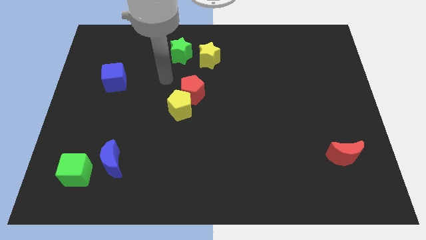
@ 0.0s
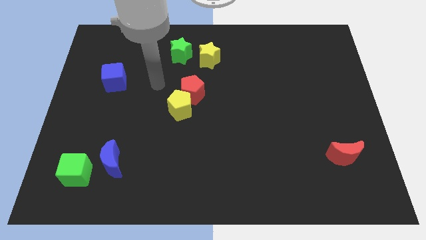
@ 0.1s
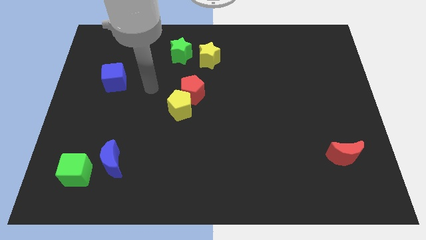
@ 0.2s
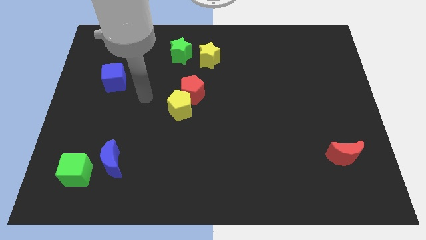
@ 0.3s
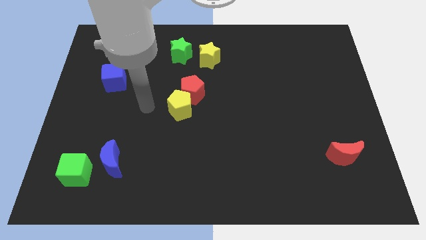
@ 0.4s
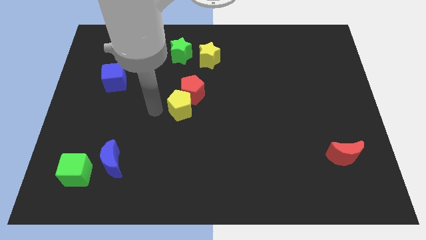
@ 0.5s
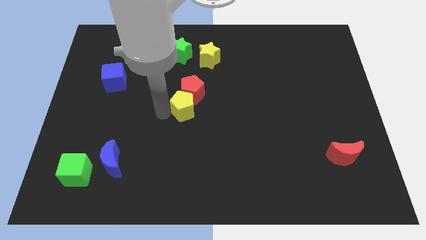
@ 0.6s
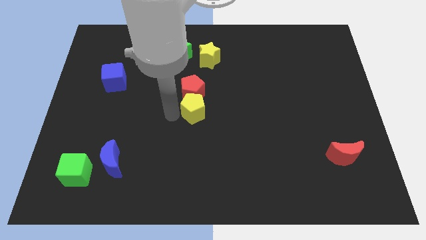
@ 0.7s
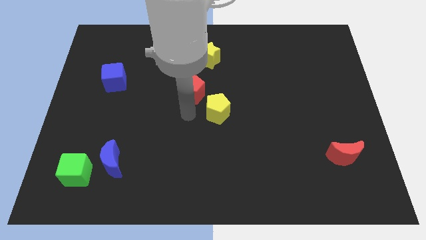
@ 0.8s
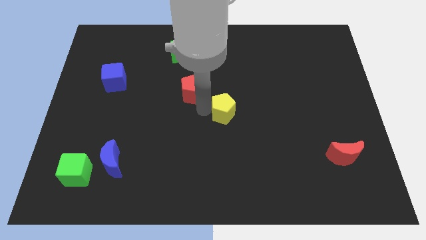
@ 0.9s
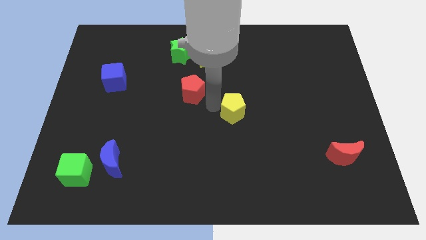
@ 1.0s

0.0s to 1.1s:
move the red pentagon away from the yellow pentagon

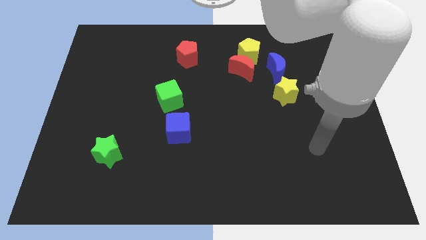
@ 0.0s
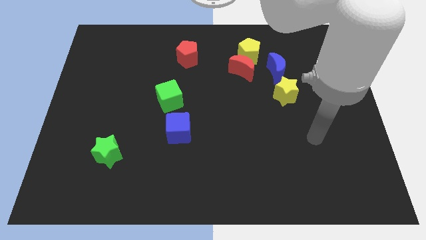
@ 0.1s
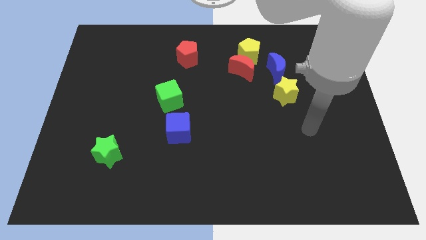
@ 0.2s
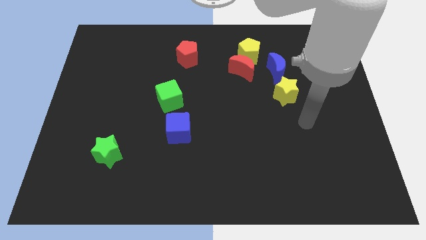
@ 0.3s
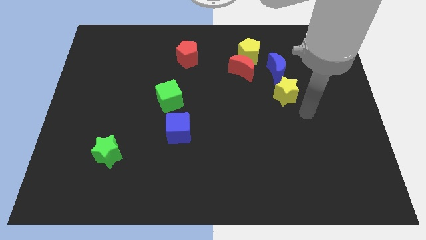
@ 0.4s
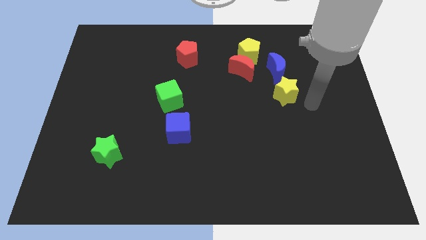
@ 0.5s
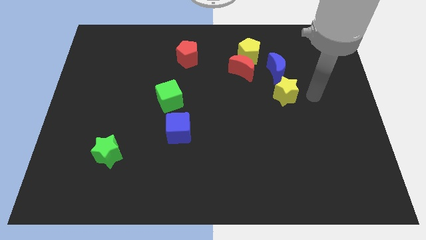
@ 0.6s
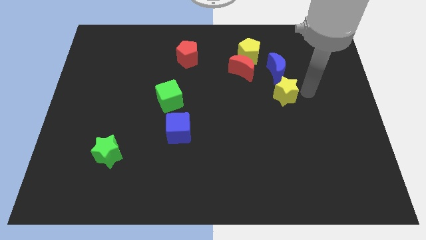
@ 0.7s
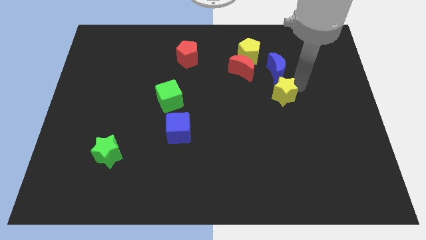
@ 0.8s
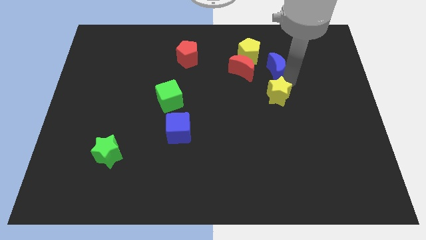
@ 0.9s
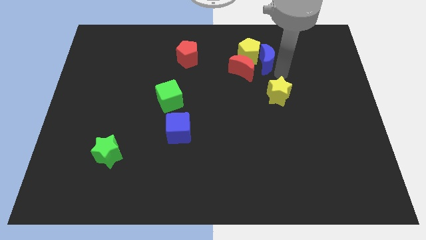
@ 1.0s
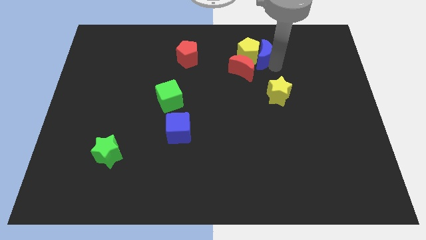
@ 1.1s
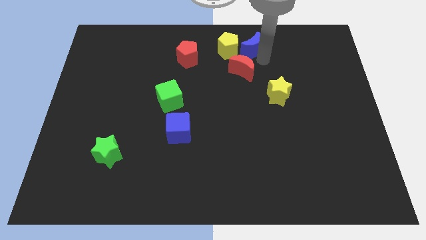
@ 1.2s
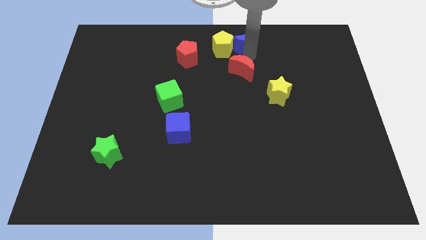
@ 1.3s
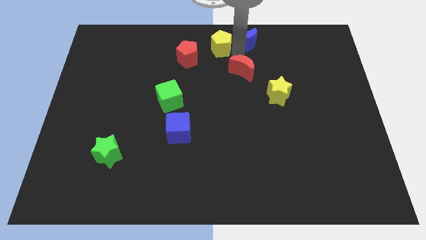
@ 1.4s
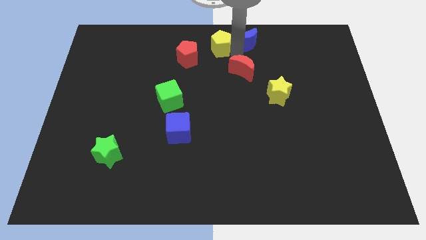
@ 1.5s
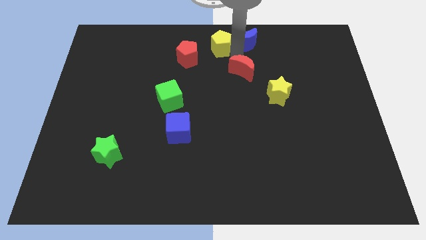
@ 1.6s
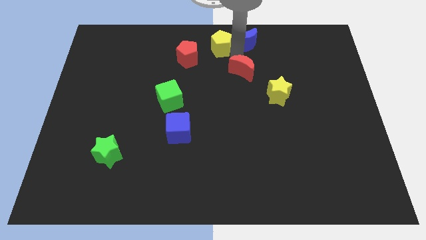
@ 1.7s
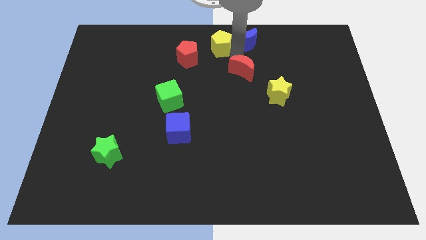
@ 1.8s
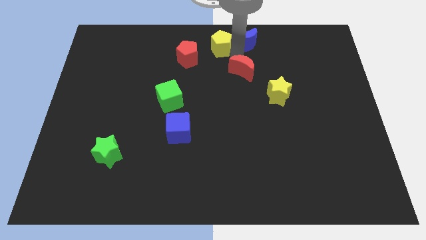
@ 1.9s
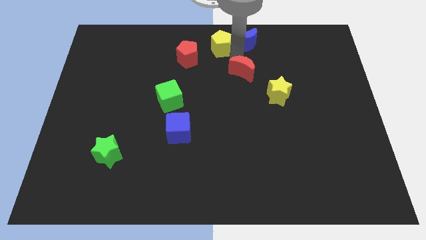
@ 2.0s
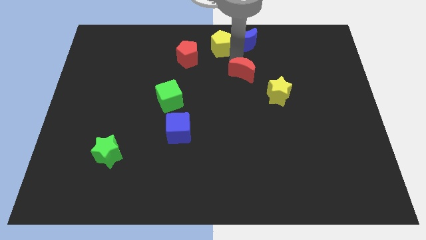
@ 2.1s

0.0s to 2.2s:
separate the red moon from the yellow pentagon and blue moon

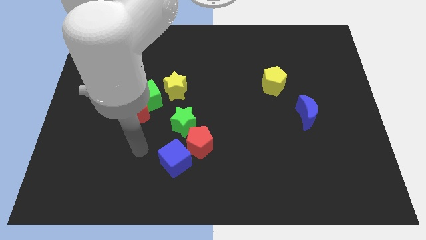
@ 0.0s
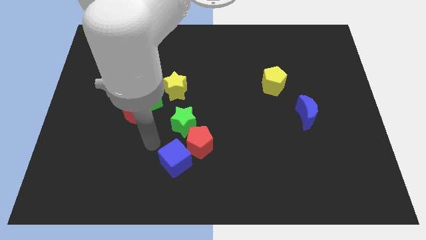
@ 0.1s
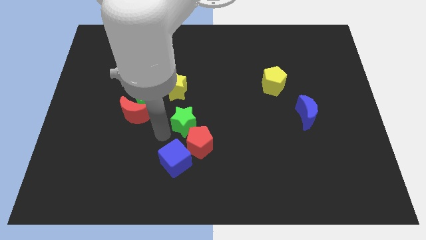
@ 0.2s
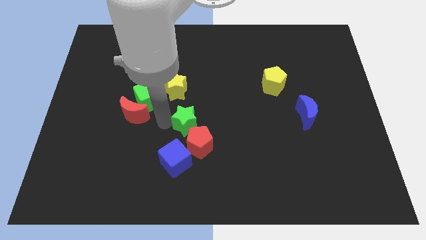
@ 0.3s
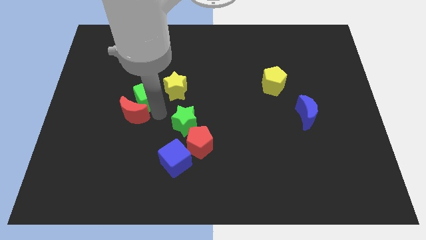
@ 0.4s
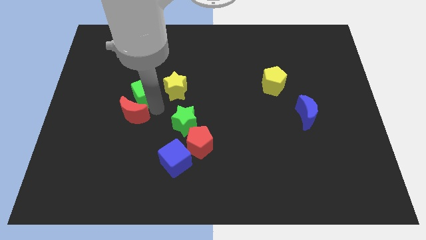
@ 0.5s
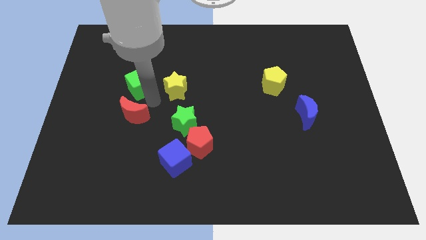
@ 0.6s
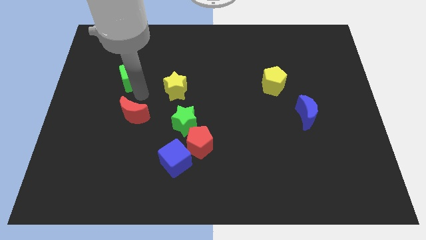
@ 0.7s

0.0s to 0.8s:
move the red moon away from the green cube

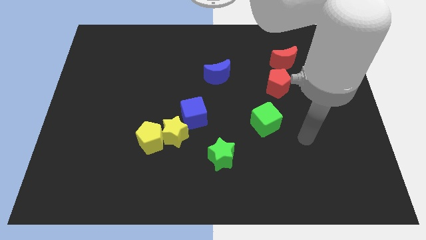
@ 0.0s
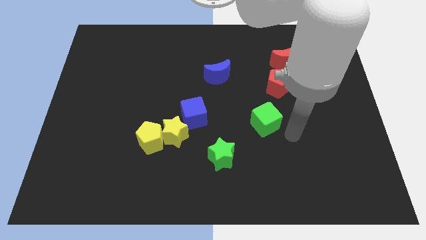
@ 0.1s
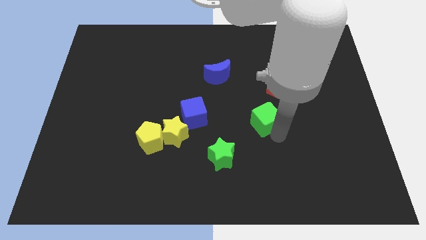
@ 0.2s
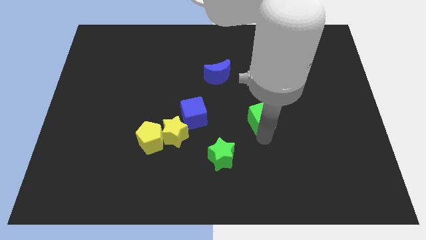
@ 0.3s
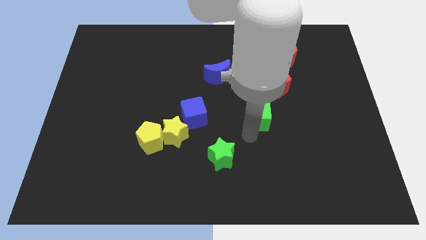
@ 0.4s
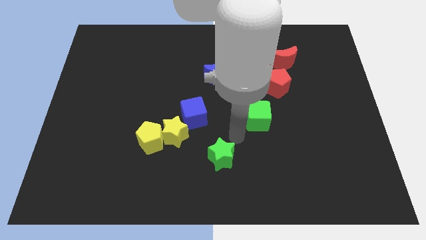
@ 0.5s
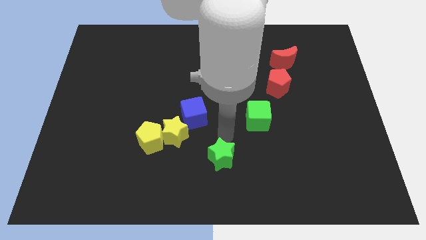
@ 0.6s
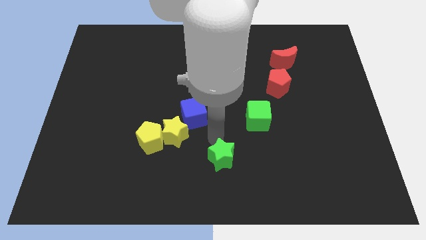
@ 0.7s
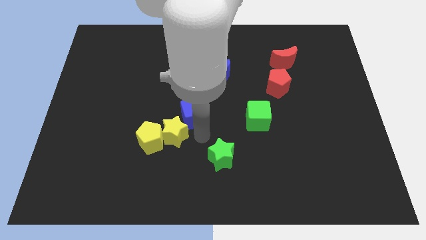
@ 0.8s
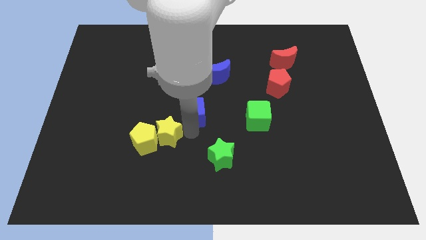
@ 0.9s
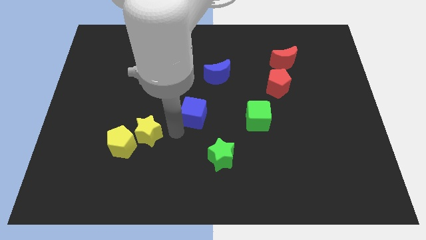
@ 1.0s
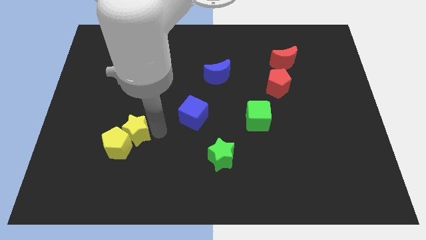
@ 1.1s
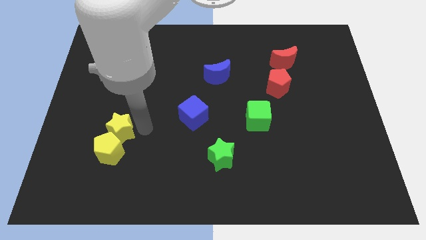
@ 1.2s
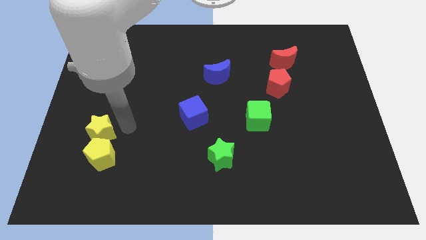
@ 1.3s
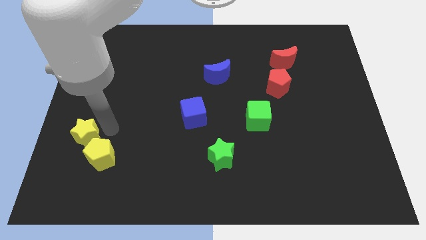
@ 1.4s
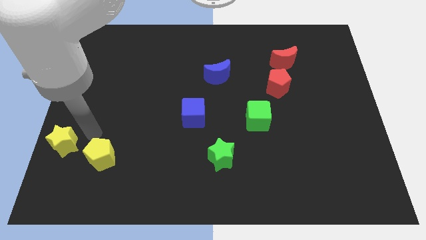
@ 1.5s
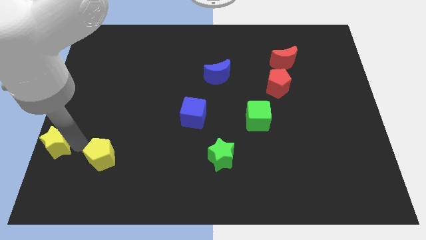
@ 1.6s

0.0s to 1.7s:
pull the yellow pentagon apart from the yellow star

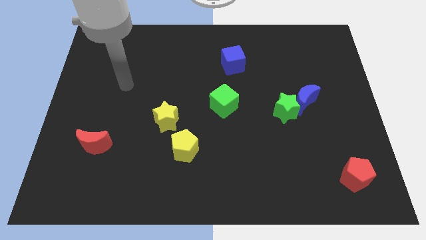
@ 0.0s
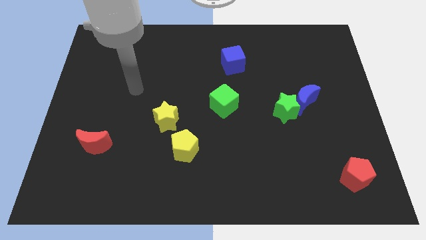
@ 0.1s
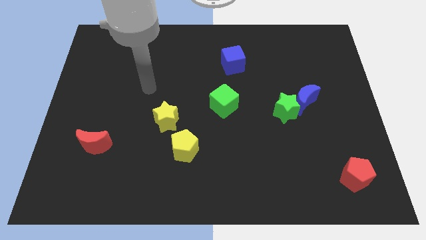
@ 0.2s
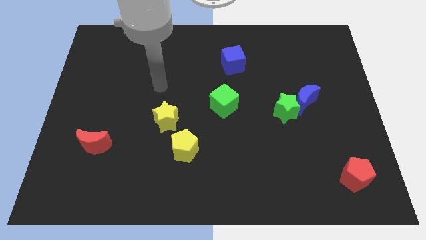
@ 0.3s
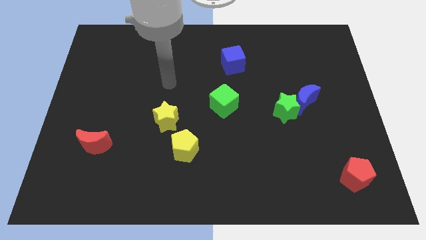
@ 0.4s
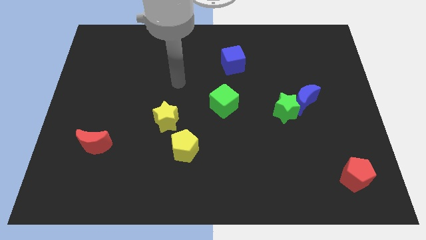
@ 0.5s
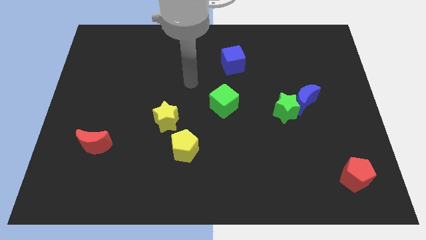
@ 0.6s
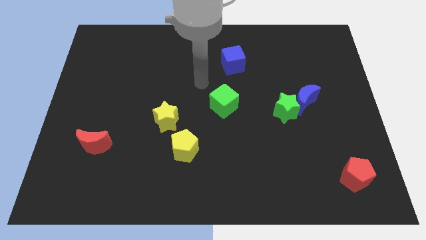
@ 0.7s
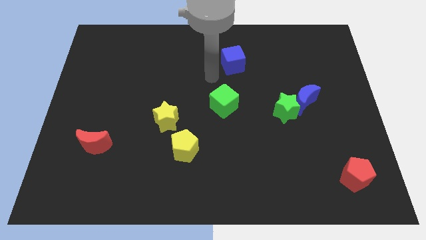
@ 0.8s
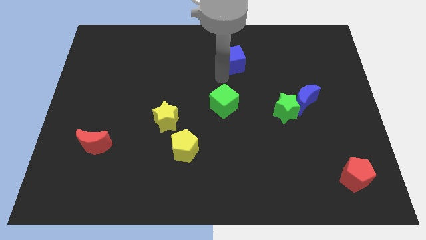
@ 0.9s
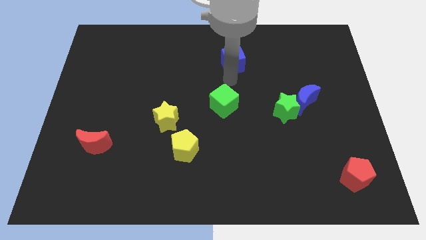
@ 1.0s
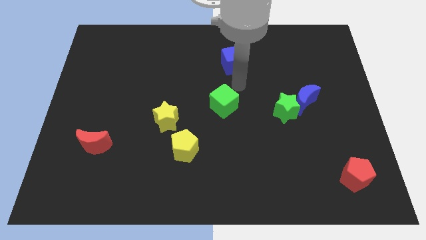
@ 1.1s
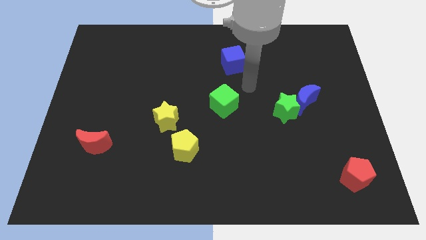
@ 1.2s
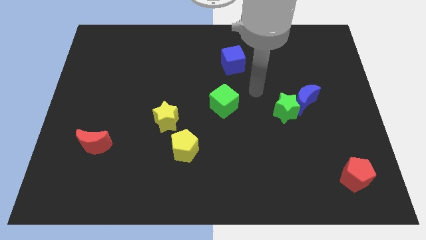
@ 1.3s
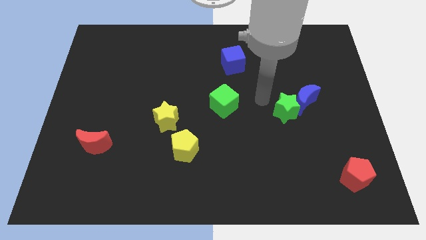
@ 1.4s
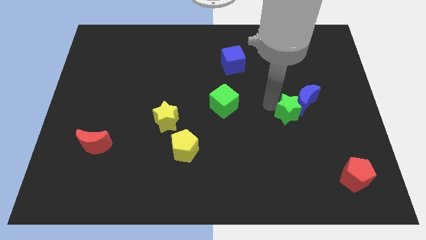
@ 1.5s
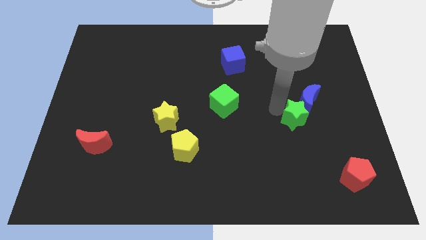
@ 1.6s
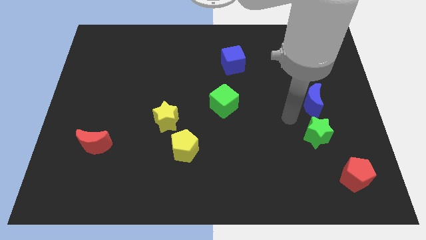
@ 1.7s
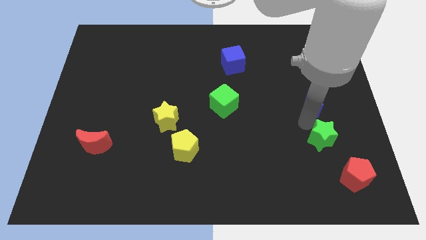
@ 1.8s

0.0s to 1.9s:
pull the blue moon apart from the green star

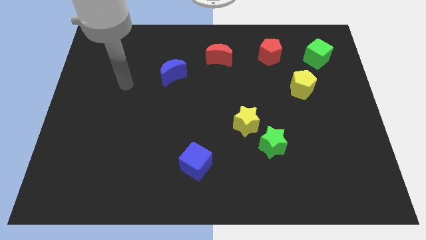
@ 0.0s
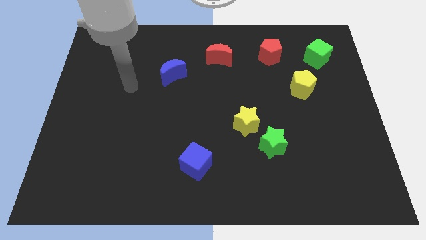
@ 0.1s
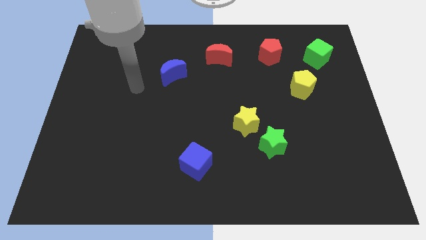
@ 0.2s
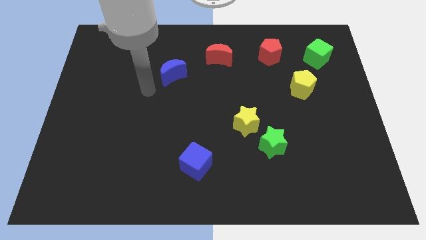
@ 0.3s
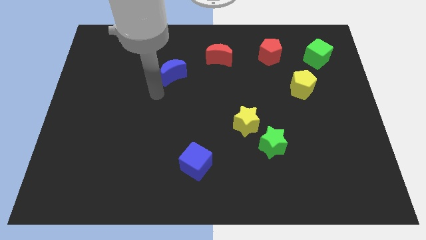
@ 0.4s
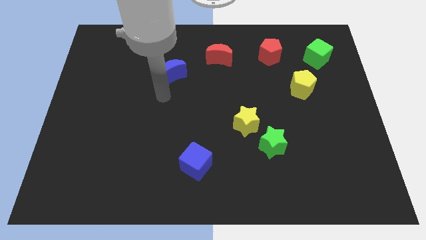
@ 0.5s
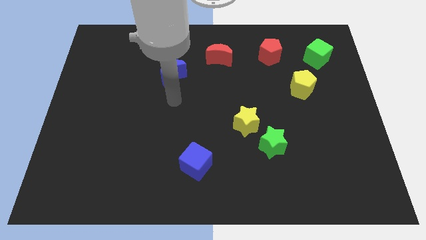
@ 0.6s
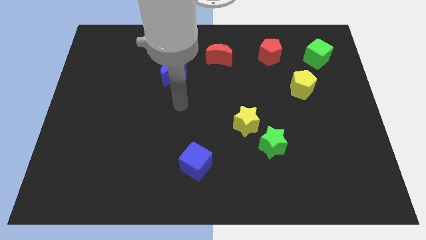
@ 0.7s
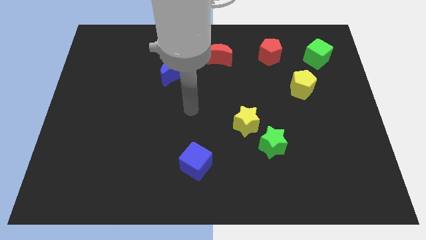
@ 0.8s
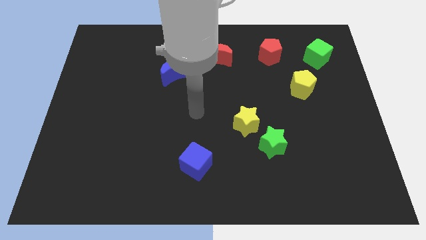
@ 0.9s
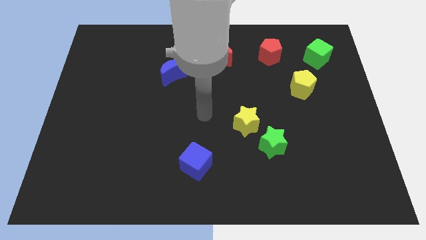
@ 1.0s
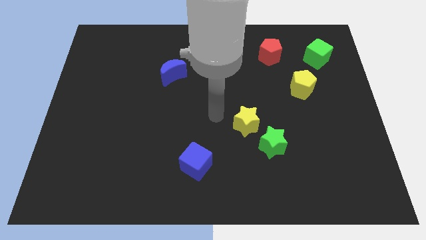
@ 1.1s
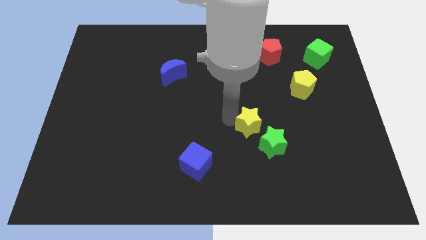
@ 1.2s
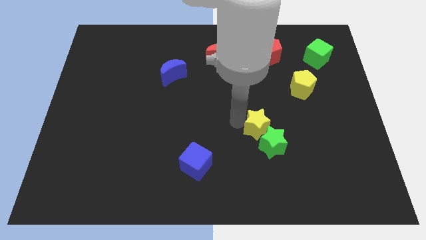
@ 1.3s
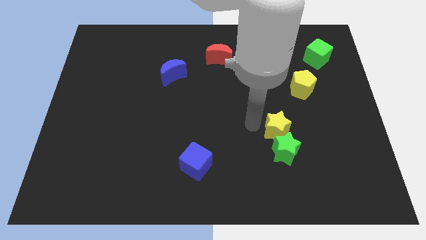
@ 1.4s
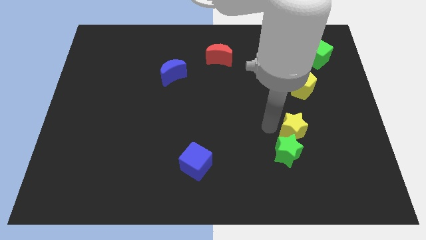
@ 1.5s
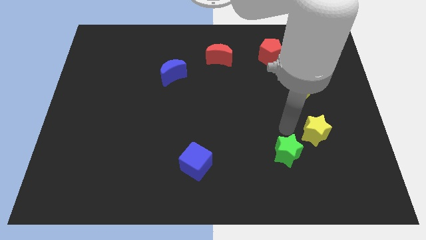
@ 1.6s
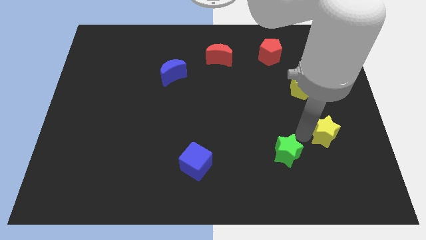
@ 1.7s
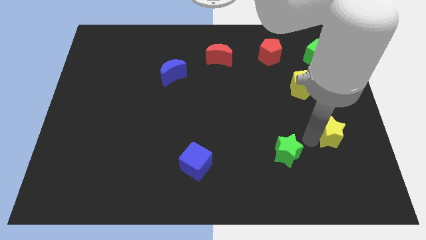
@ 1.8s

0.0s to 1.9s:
separate the green star from the yellow star
